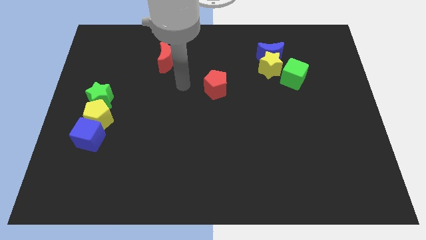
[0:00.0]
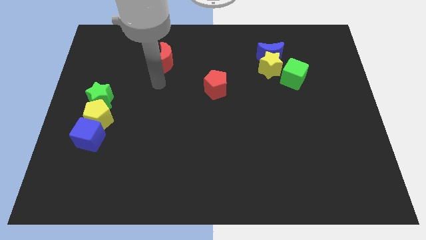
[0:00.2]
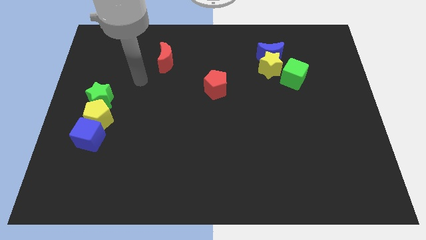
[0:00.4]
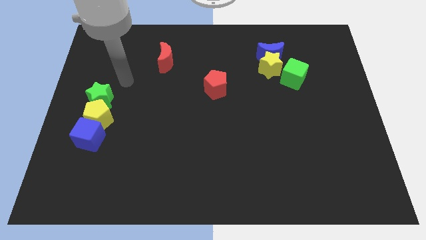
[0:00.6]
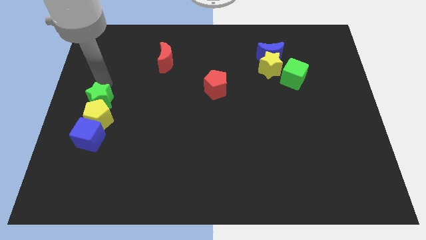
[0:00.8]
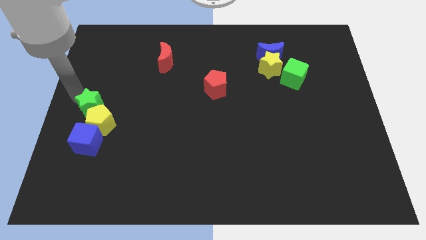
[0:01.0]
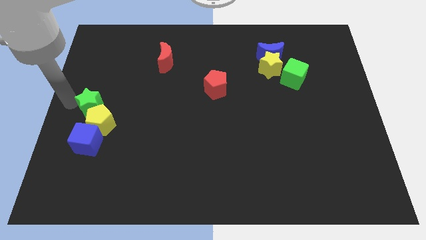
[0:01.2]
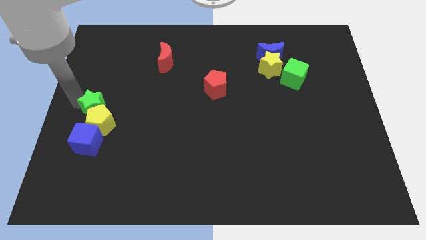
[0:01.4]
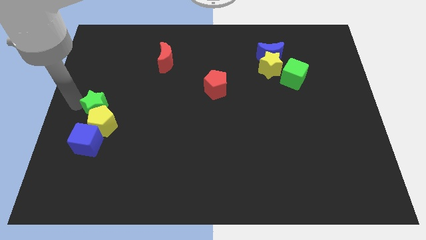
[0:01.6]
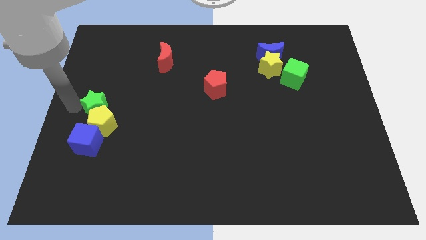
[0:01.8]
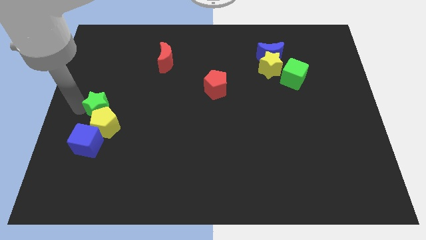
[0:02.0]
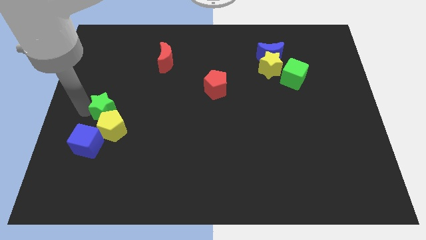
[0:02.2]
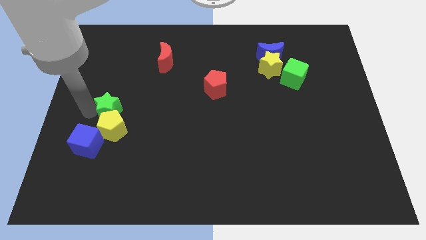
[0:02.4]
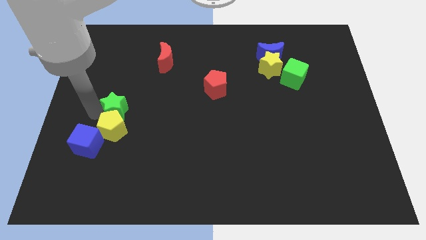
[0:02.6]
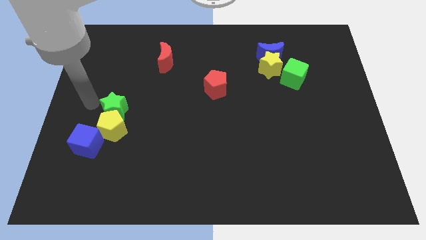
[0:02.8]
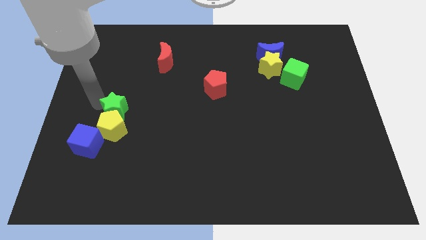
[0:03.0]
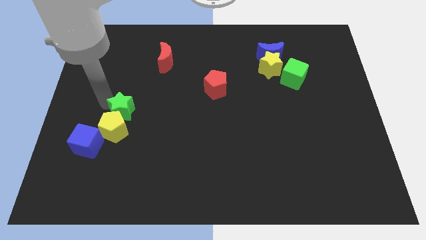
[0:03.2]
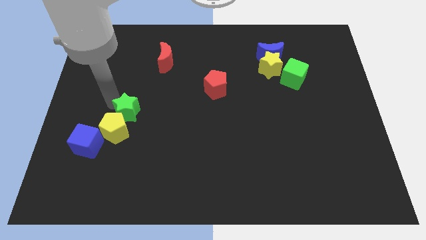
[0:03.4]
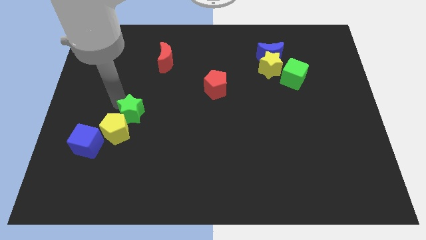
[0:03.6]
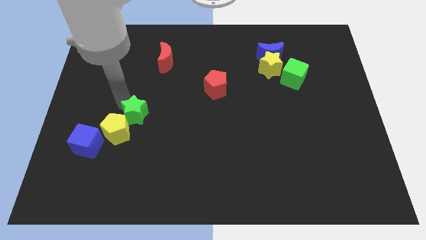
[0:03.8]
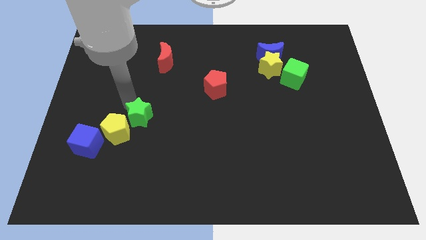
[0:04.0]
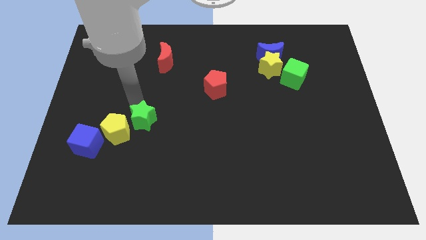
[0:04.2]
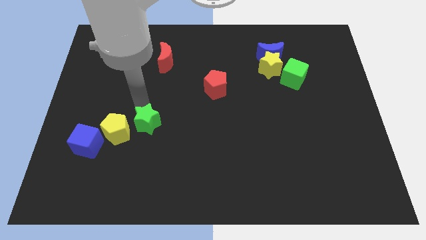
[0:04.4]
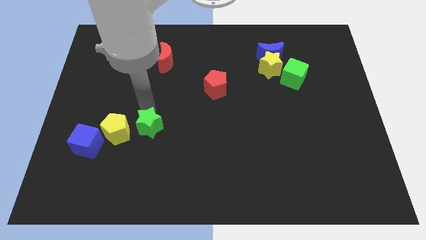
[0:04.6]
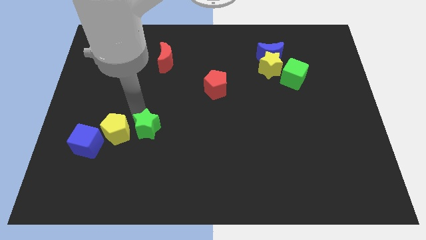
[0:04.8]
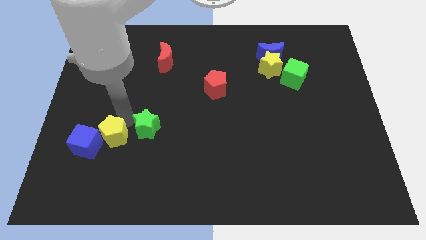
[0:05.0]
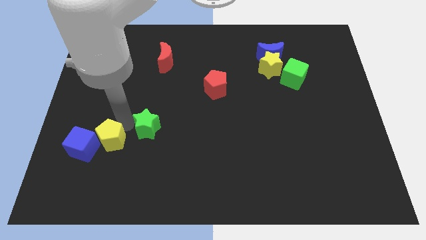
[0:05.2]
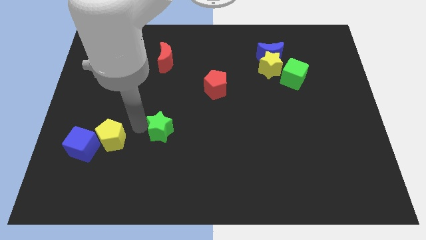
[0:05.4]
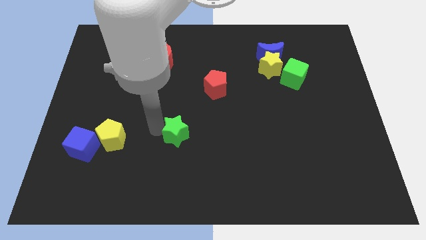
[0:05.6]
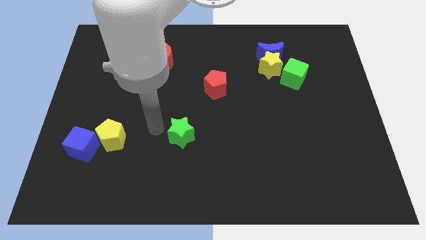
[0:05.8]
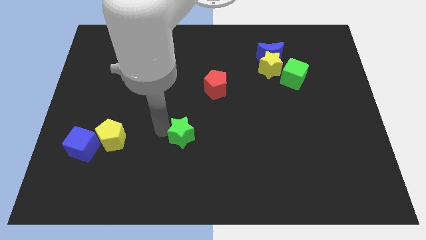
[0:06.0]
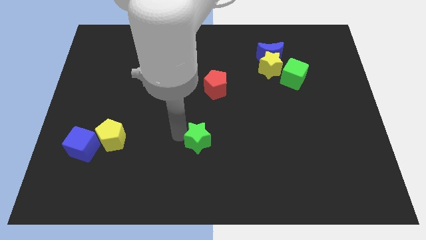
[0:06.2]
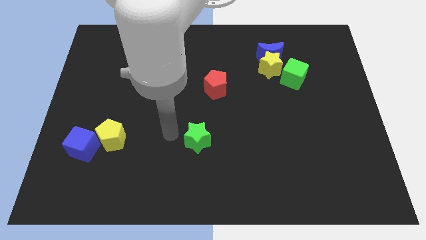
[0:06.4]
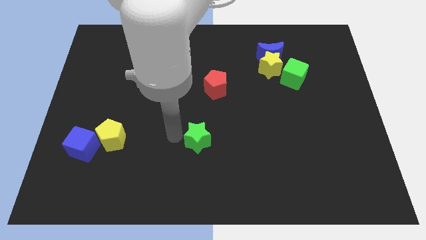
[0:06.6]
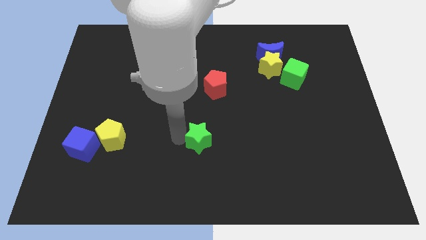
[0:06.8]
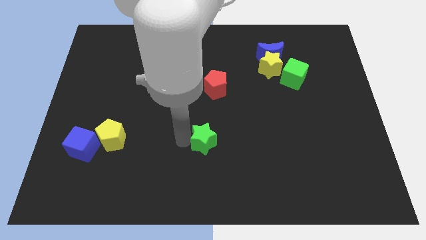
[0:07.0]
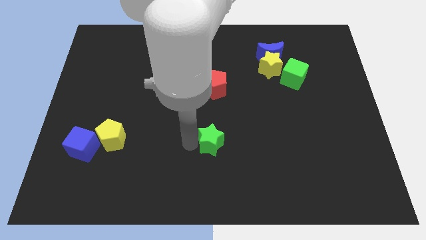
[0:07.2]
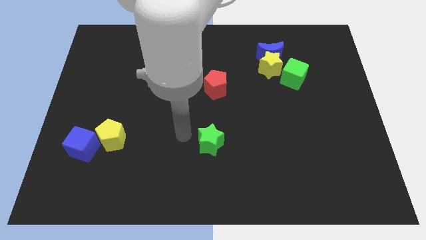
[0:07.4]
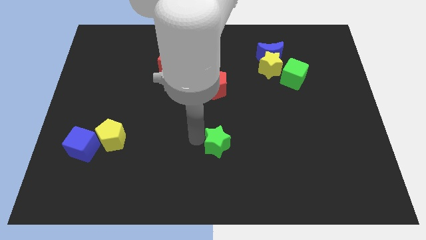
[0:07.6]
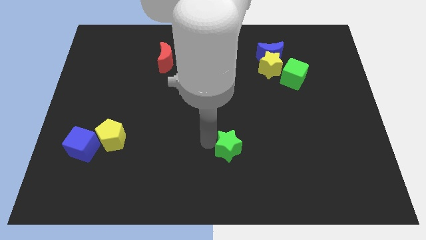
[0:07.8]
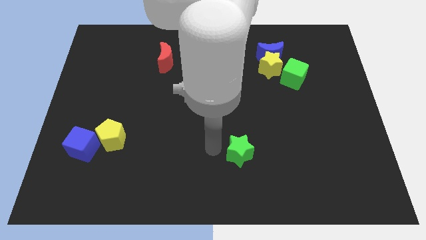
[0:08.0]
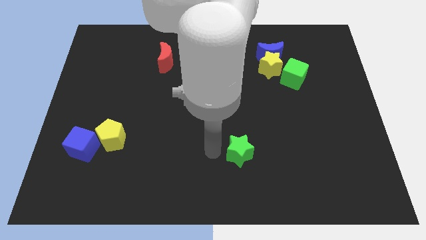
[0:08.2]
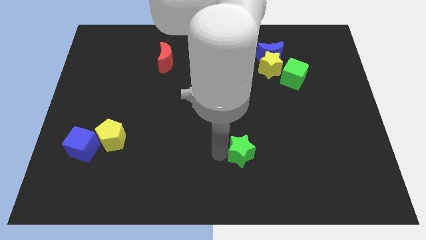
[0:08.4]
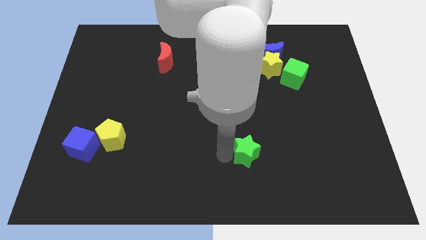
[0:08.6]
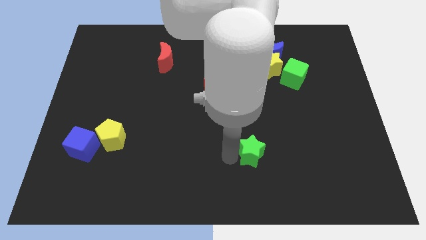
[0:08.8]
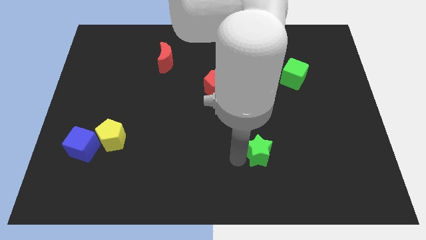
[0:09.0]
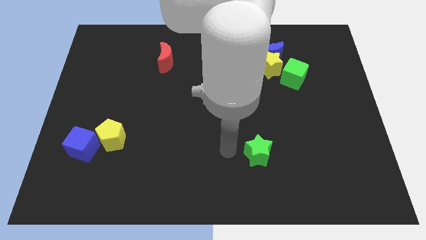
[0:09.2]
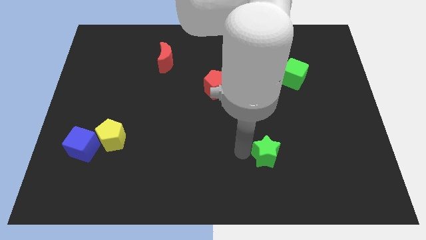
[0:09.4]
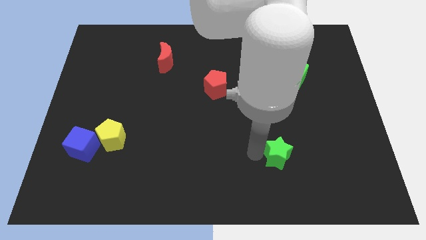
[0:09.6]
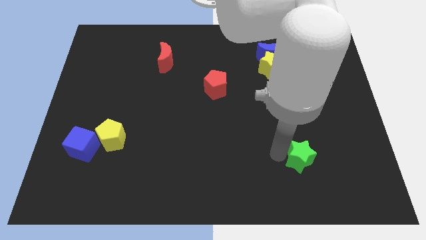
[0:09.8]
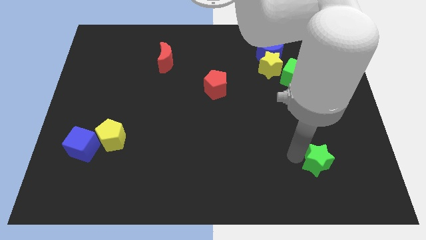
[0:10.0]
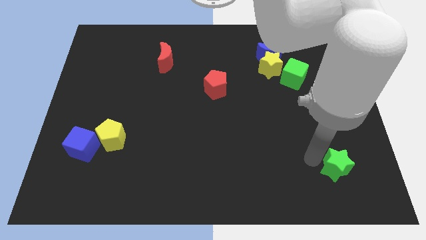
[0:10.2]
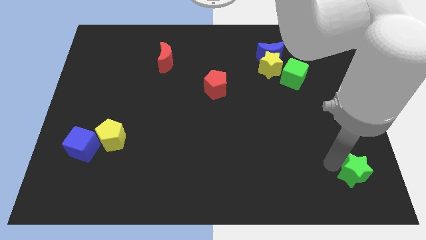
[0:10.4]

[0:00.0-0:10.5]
put the green star to the bottom right

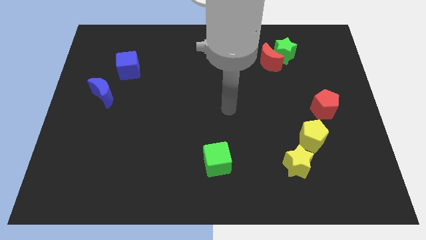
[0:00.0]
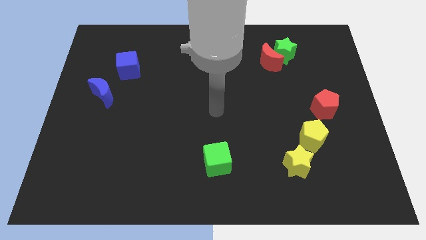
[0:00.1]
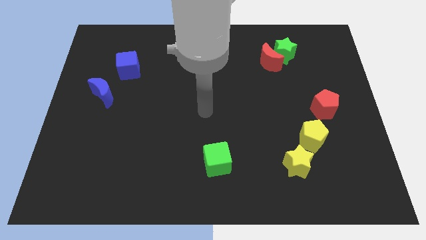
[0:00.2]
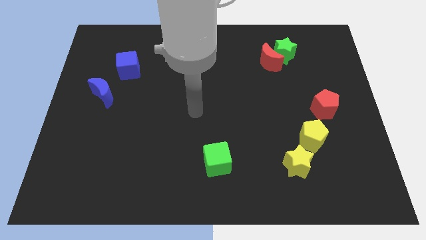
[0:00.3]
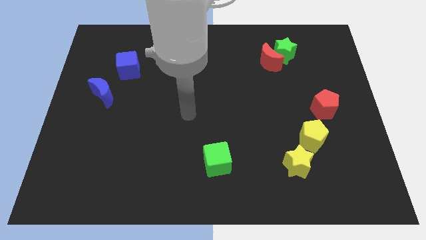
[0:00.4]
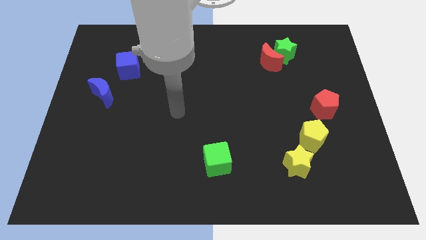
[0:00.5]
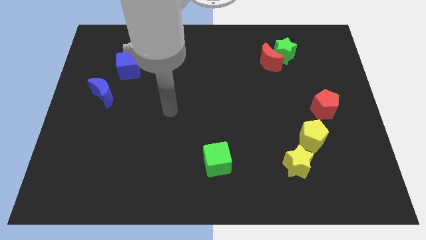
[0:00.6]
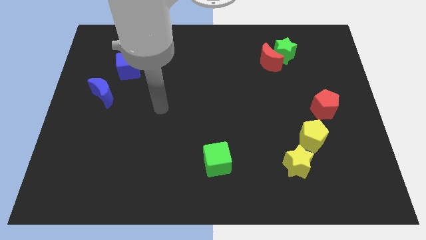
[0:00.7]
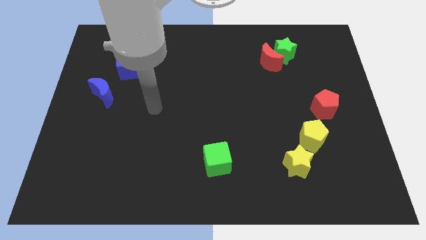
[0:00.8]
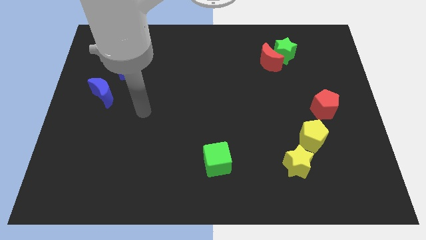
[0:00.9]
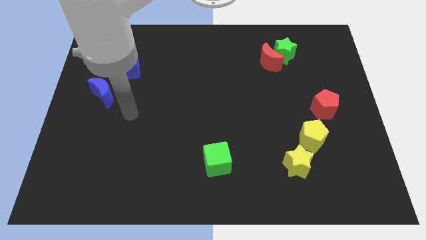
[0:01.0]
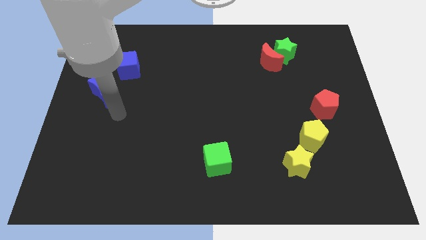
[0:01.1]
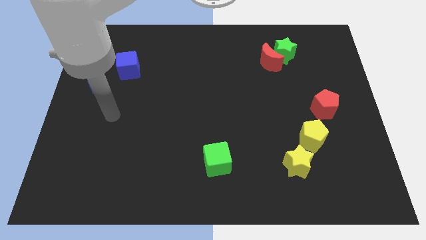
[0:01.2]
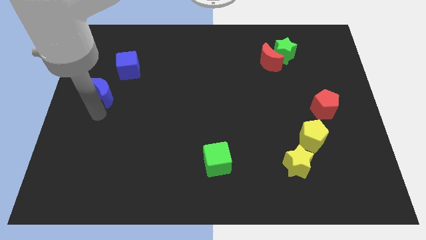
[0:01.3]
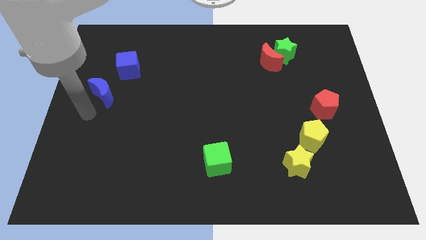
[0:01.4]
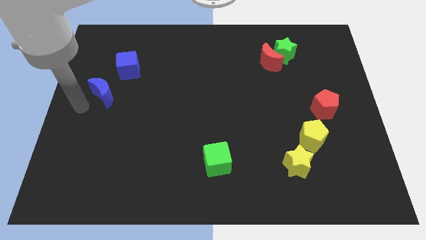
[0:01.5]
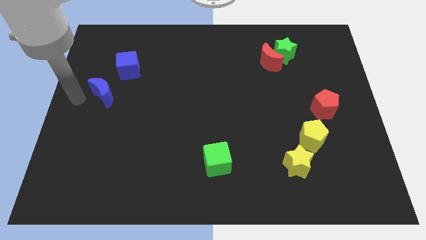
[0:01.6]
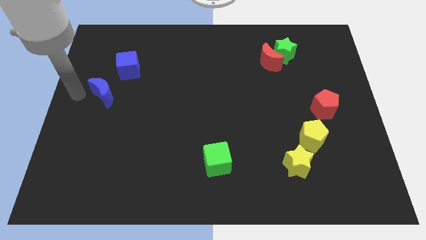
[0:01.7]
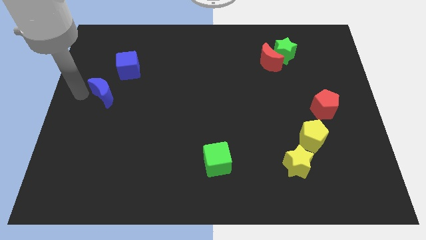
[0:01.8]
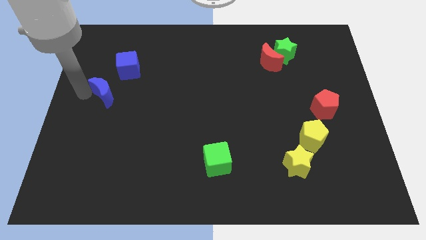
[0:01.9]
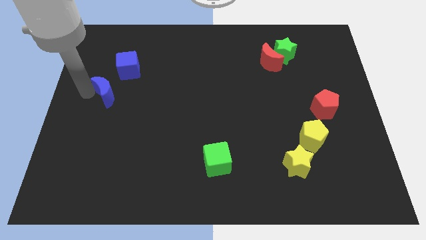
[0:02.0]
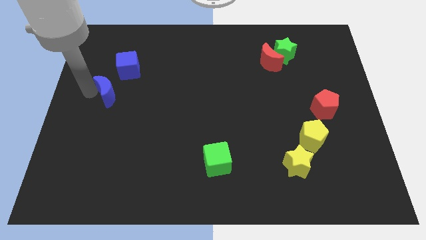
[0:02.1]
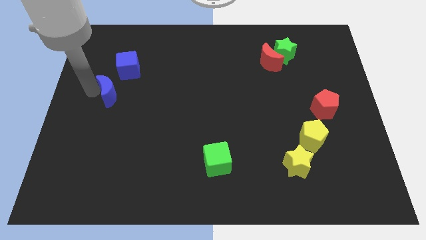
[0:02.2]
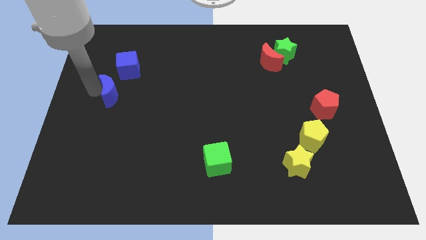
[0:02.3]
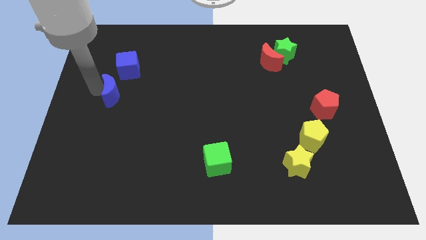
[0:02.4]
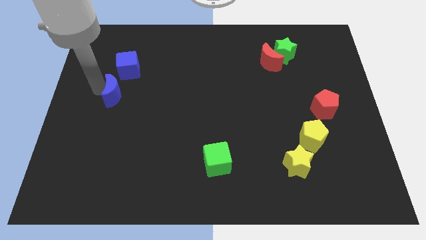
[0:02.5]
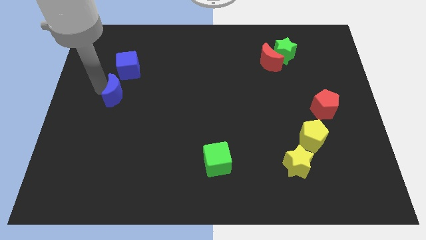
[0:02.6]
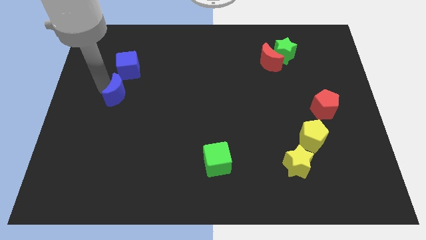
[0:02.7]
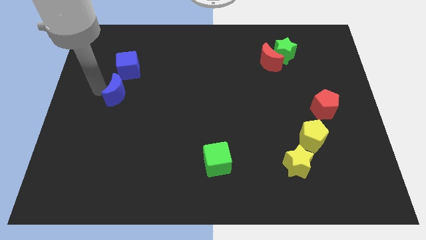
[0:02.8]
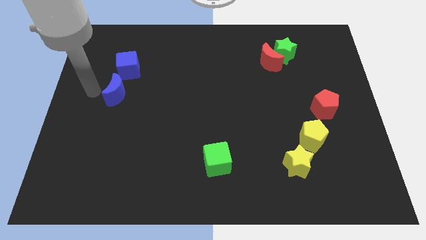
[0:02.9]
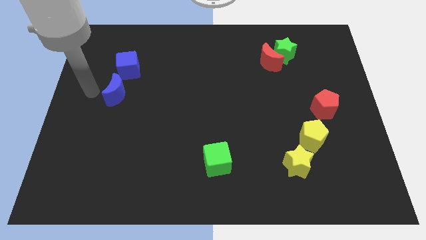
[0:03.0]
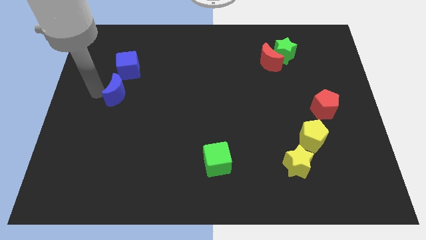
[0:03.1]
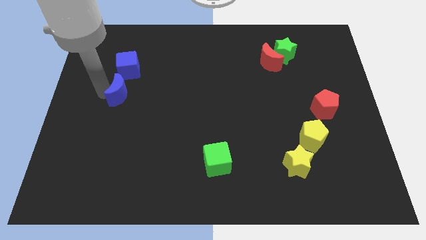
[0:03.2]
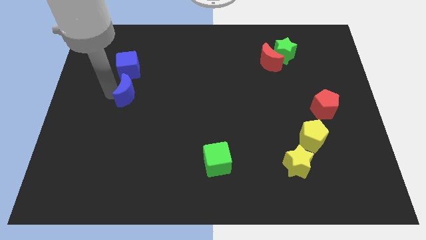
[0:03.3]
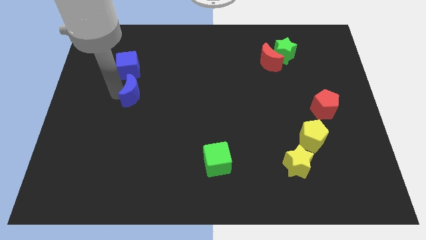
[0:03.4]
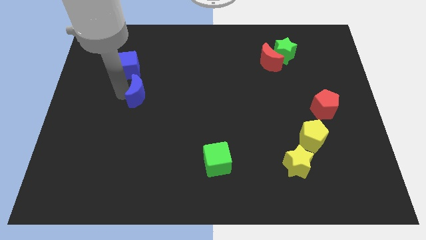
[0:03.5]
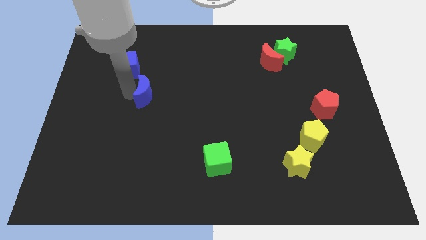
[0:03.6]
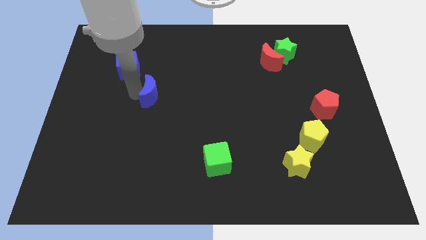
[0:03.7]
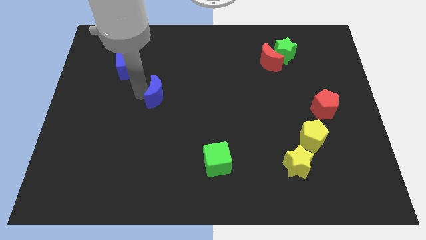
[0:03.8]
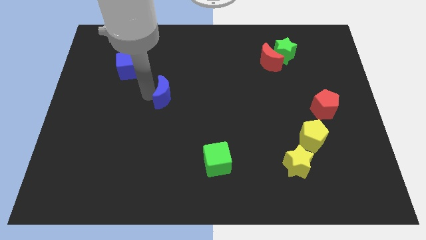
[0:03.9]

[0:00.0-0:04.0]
slide the blue moon to the center of the board
